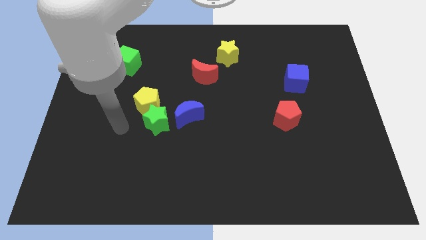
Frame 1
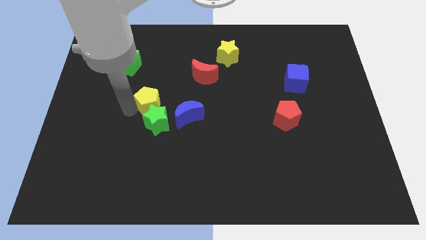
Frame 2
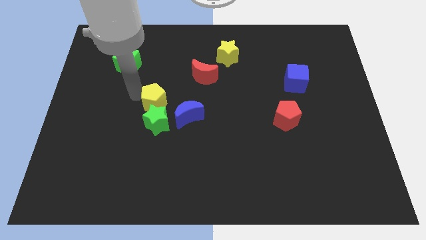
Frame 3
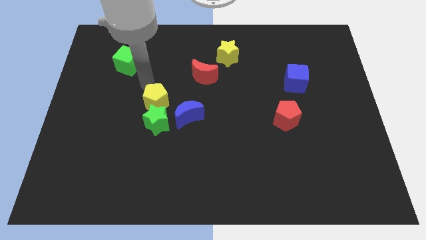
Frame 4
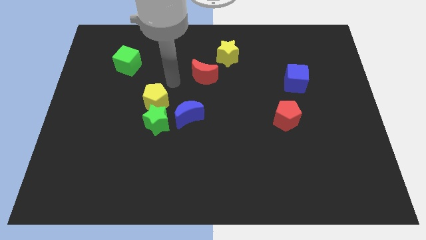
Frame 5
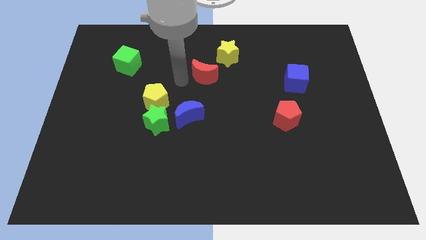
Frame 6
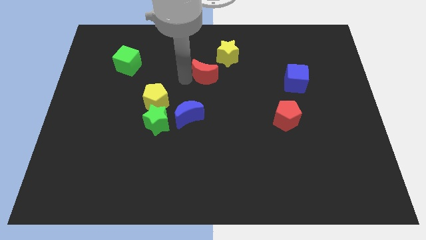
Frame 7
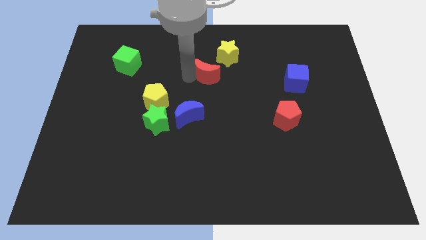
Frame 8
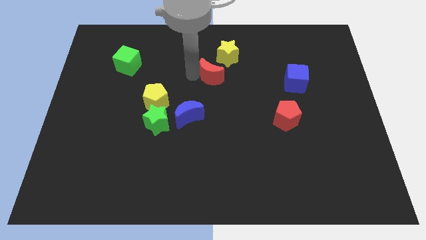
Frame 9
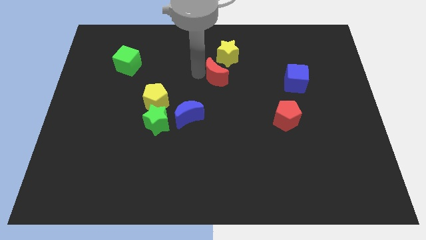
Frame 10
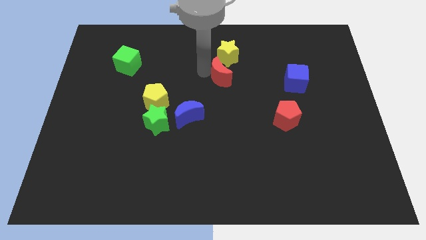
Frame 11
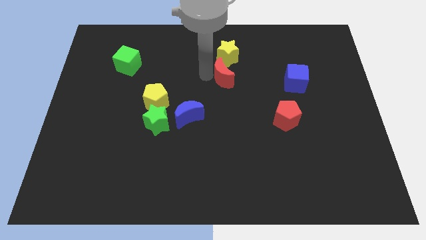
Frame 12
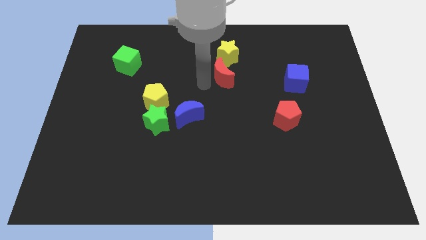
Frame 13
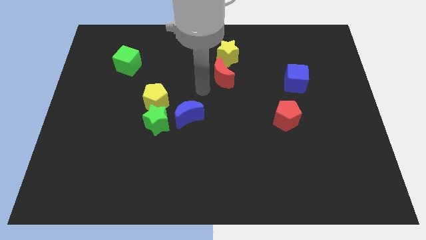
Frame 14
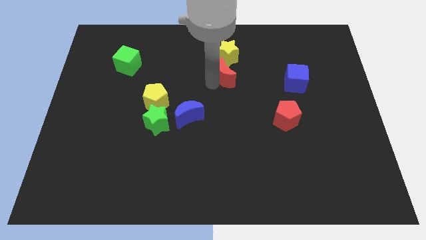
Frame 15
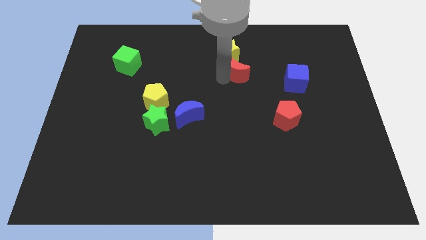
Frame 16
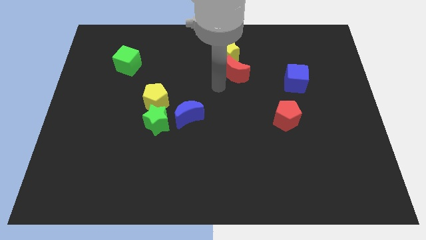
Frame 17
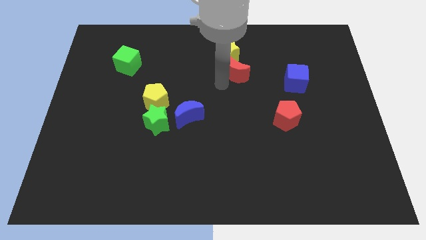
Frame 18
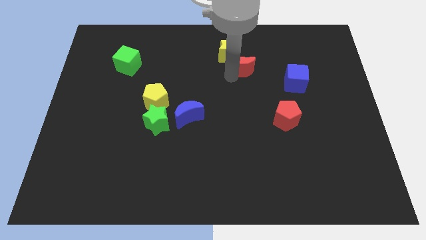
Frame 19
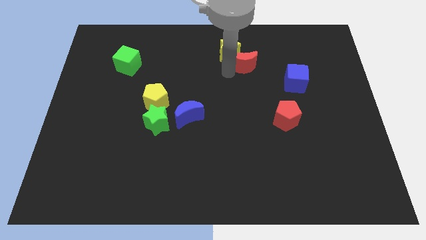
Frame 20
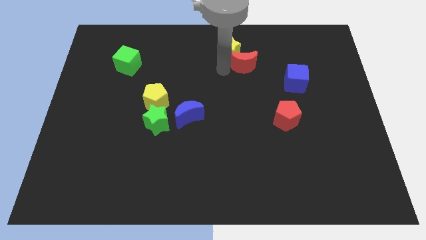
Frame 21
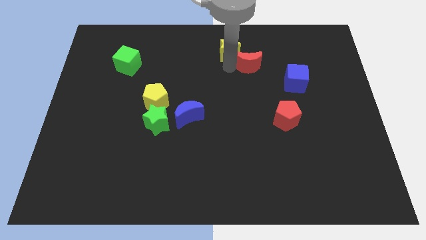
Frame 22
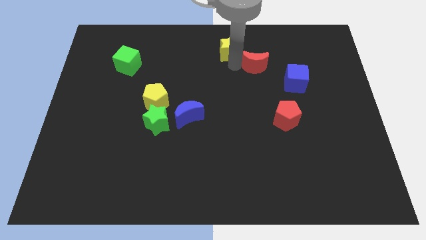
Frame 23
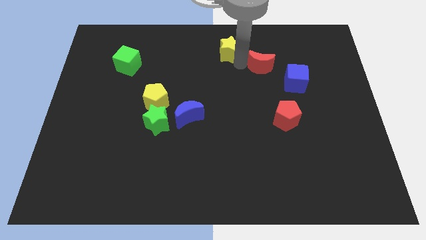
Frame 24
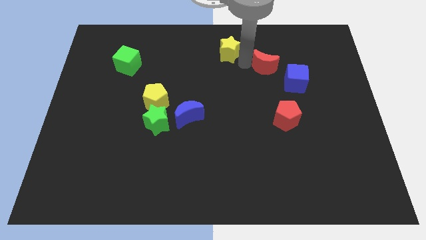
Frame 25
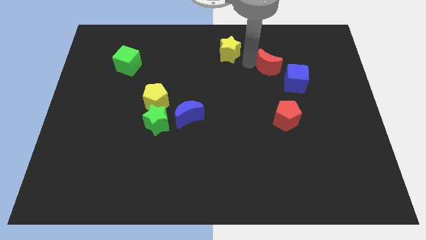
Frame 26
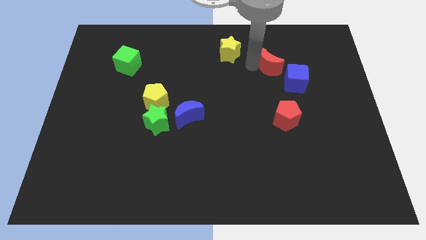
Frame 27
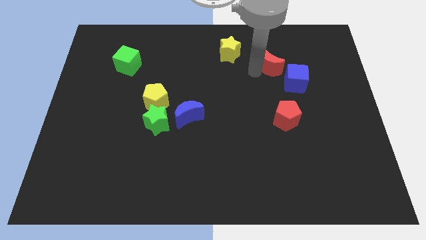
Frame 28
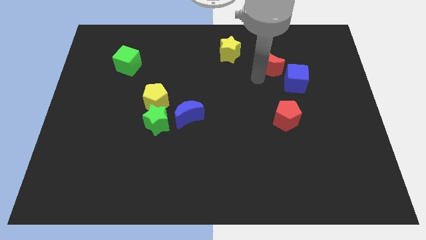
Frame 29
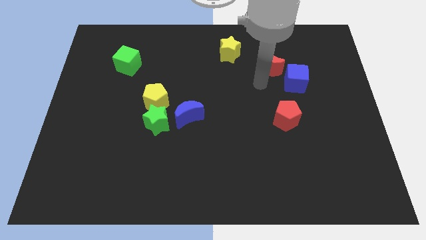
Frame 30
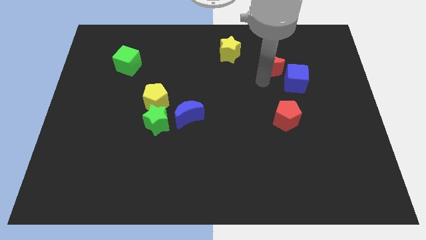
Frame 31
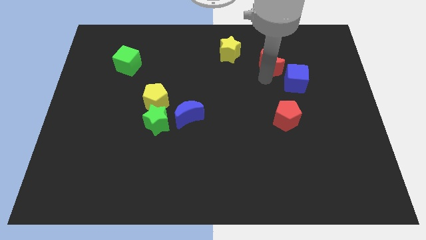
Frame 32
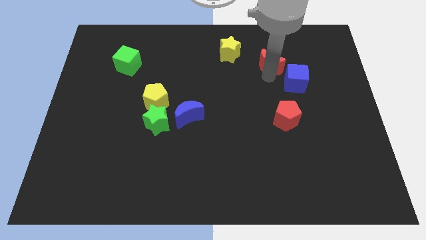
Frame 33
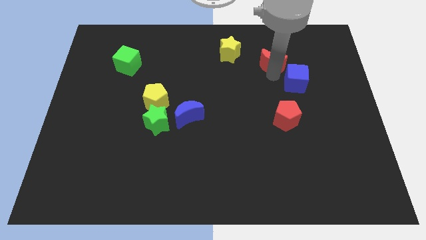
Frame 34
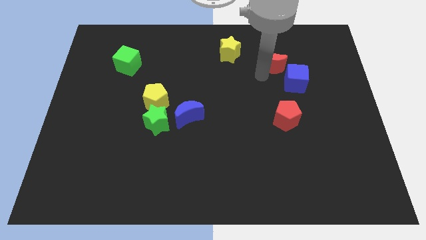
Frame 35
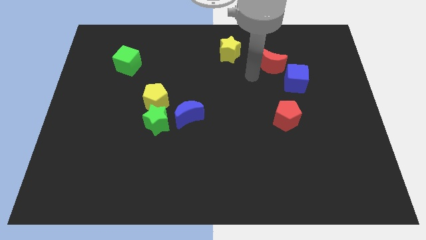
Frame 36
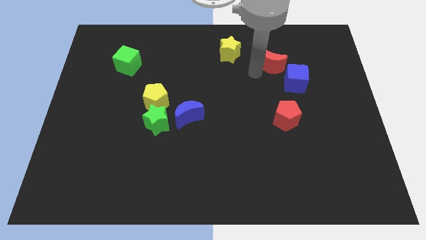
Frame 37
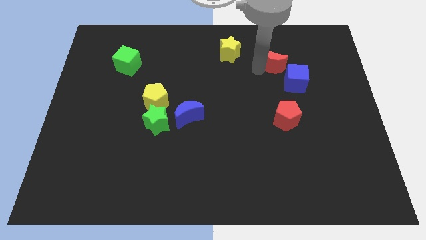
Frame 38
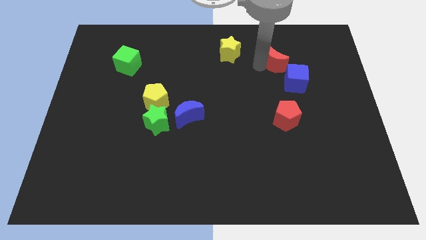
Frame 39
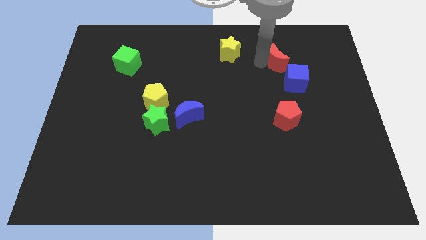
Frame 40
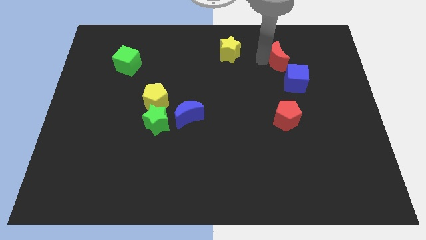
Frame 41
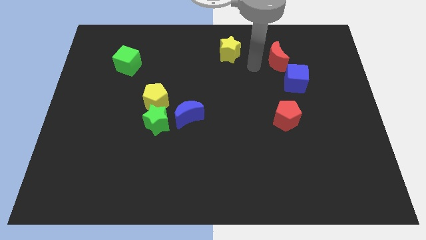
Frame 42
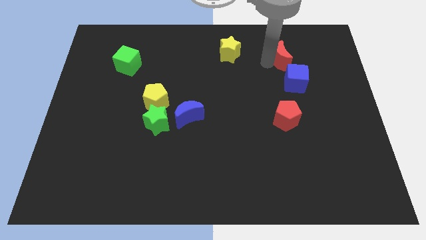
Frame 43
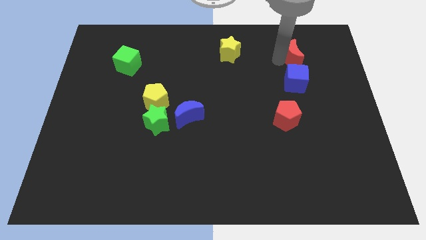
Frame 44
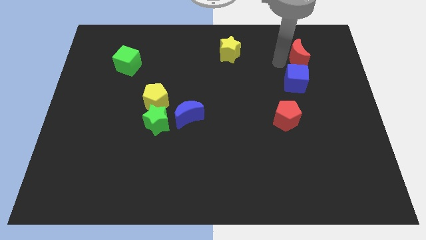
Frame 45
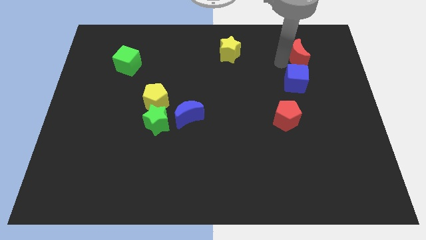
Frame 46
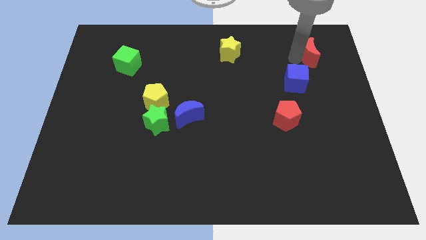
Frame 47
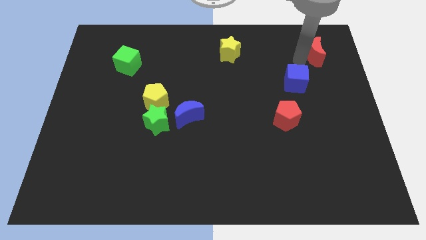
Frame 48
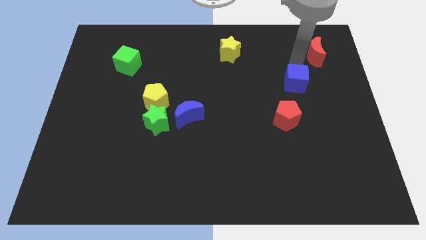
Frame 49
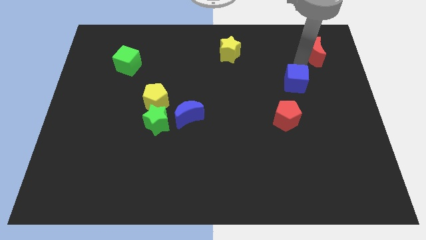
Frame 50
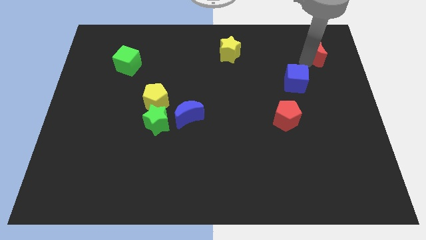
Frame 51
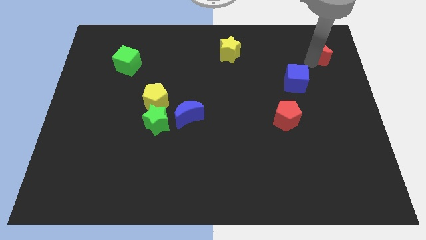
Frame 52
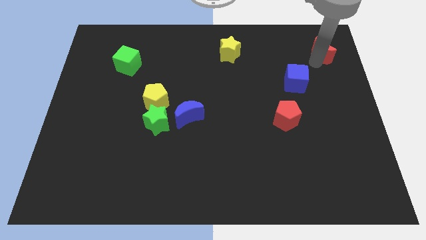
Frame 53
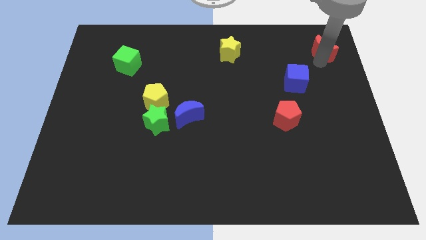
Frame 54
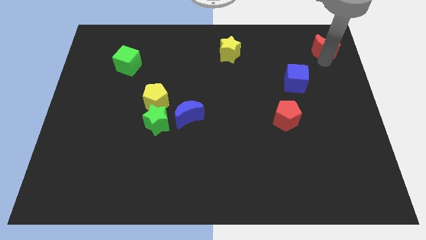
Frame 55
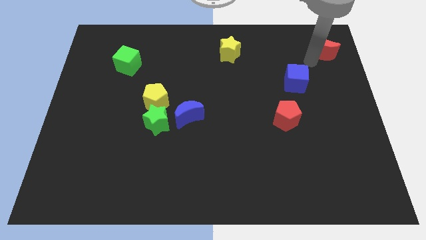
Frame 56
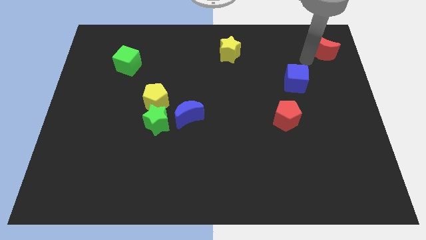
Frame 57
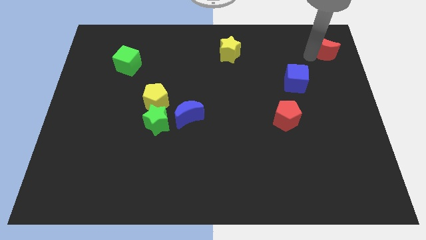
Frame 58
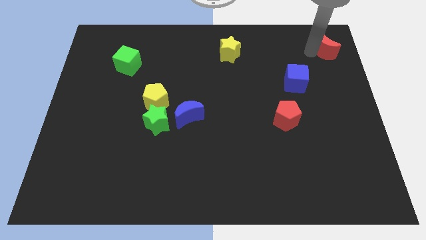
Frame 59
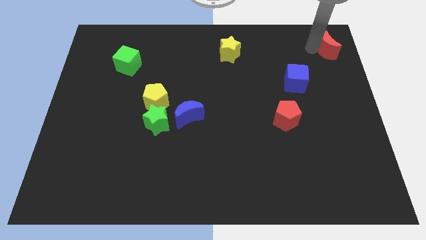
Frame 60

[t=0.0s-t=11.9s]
push the red moon to the top right of the board

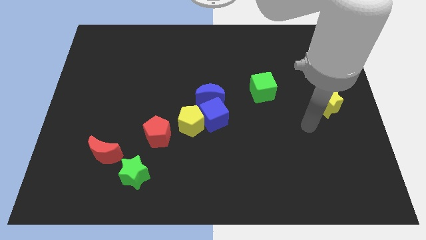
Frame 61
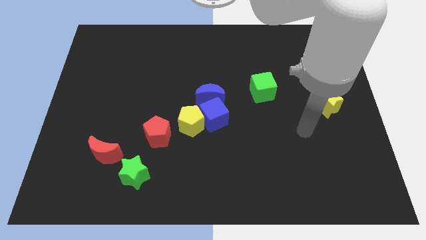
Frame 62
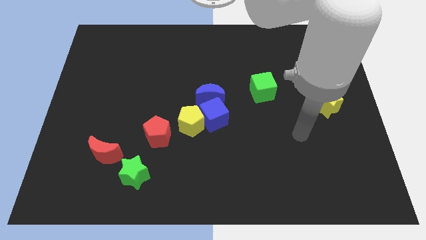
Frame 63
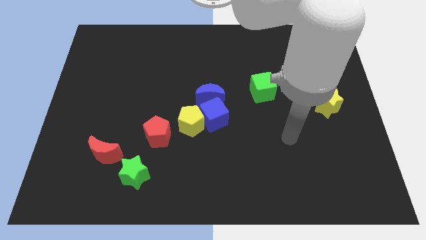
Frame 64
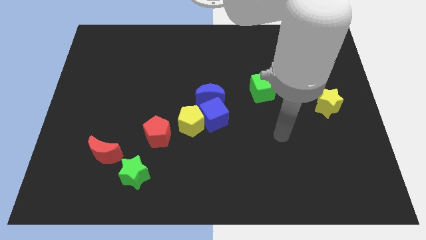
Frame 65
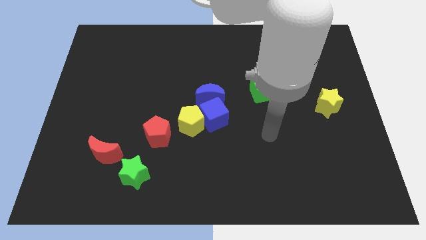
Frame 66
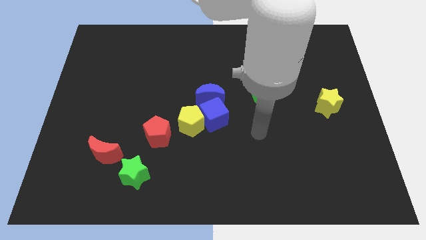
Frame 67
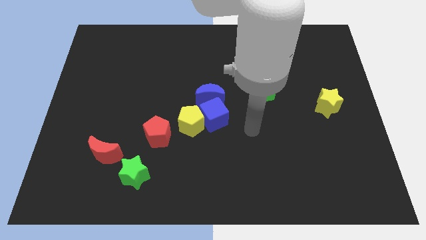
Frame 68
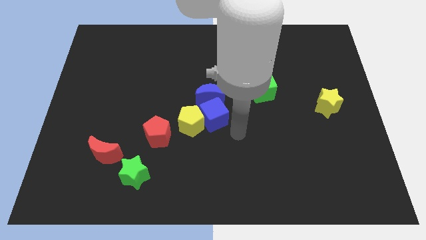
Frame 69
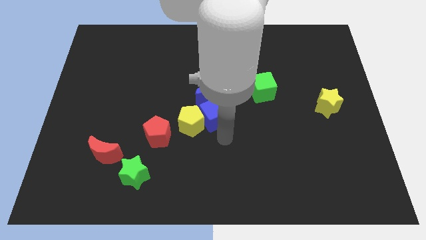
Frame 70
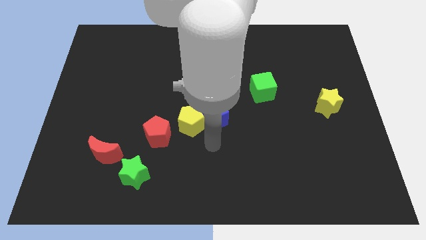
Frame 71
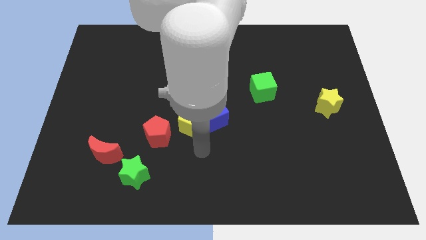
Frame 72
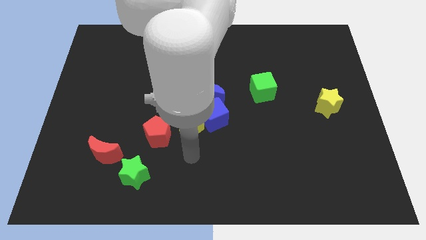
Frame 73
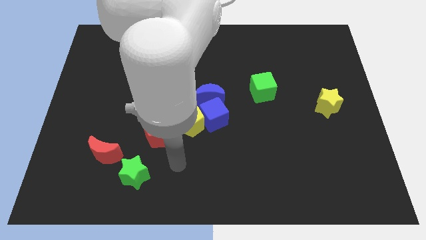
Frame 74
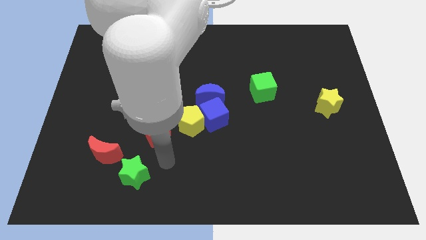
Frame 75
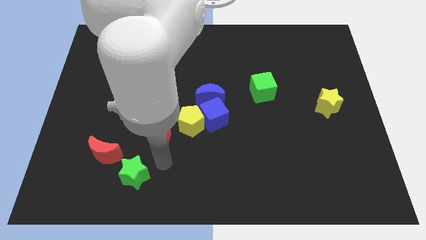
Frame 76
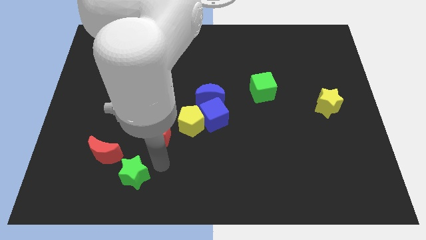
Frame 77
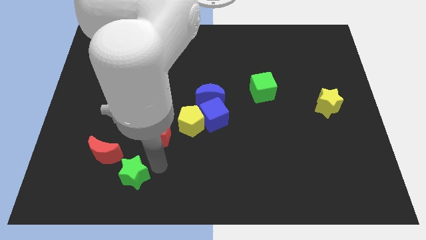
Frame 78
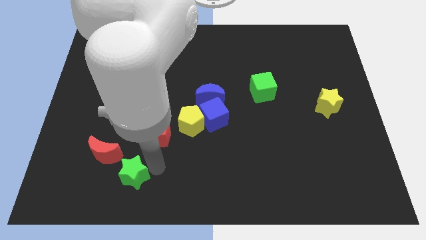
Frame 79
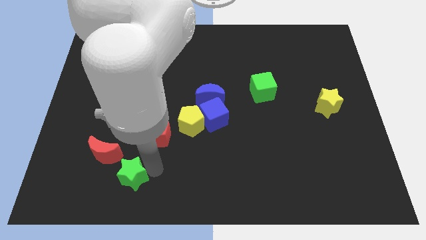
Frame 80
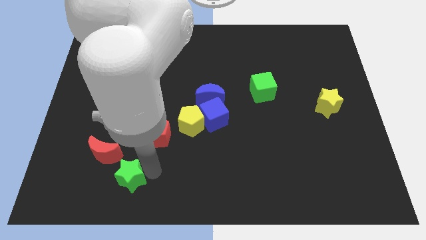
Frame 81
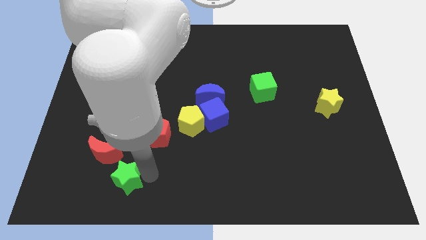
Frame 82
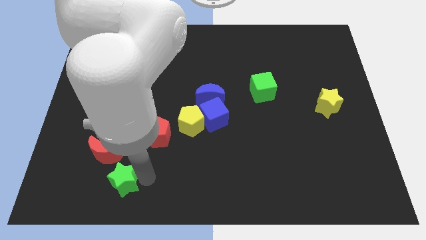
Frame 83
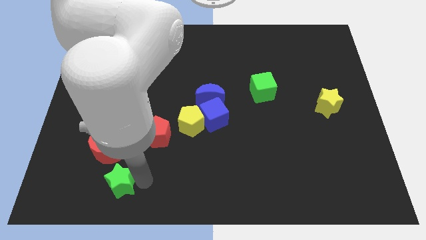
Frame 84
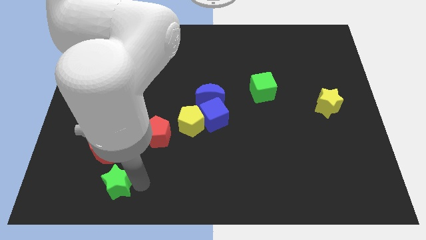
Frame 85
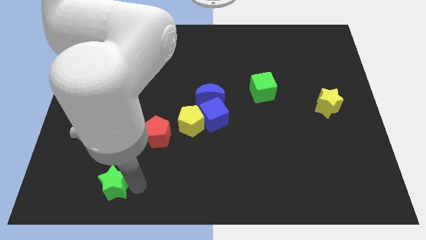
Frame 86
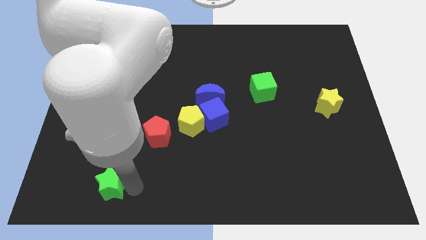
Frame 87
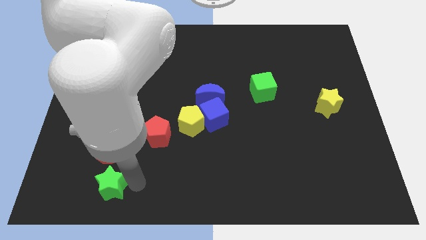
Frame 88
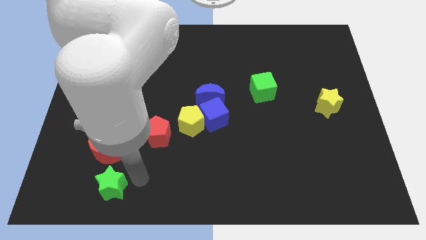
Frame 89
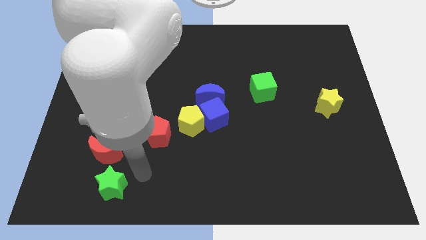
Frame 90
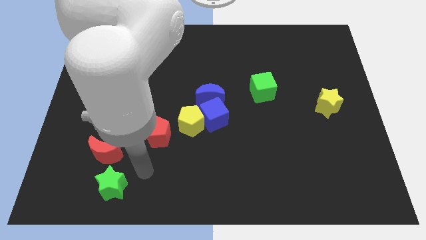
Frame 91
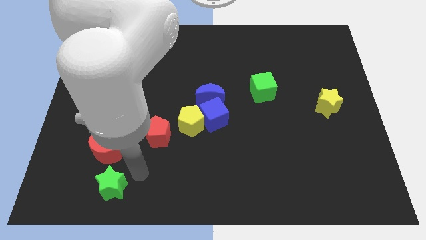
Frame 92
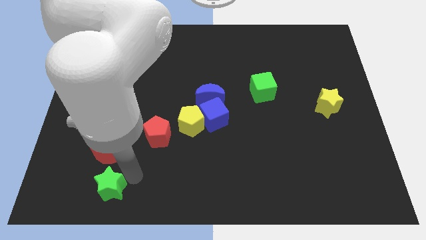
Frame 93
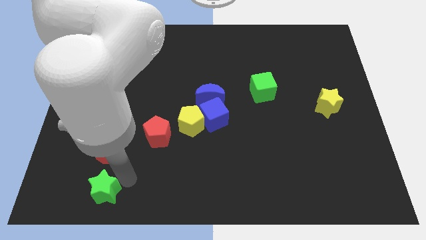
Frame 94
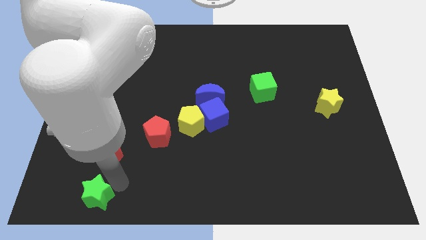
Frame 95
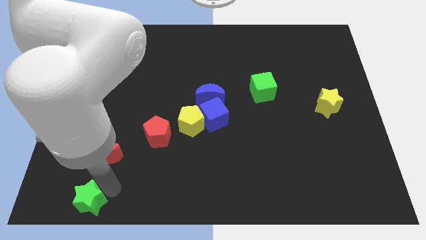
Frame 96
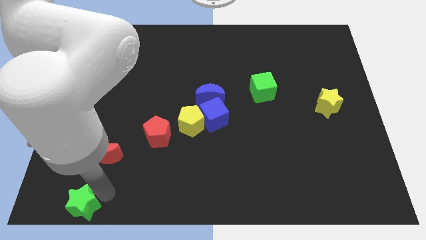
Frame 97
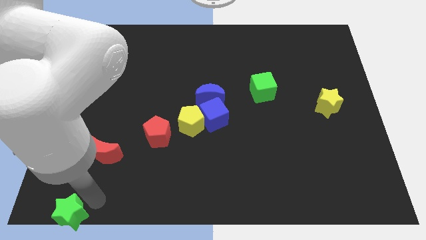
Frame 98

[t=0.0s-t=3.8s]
put the green star to the bottom left of the board
